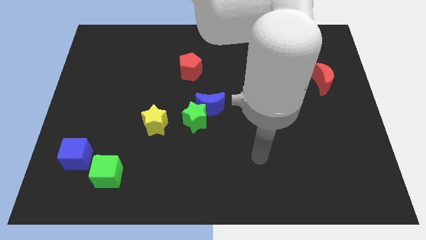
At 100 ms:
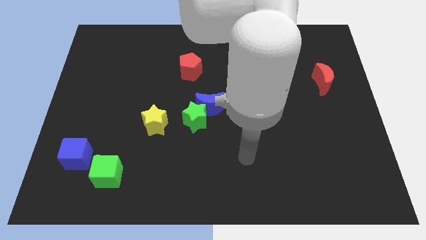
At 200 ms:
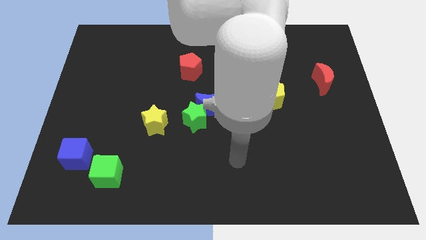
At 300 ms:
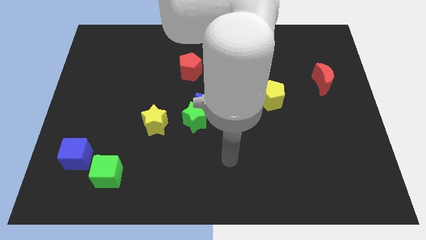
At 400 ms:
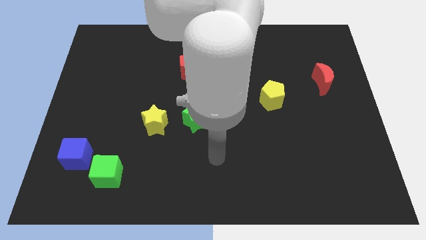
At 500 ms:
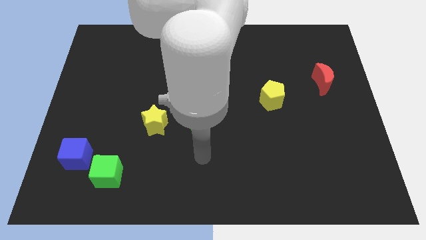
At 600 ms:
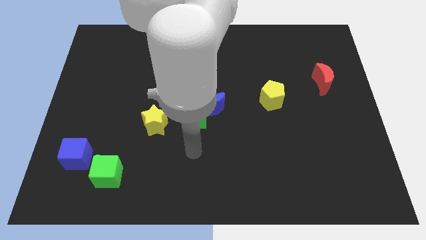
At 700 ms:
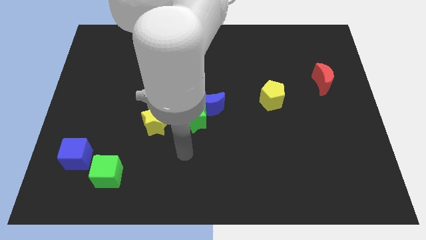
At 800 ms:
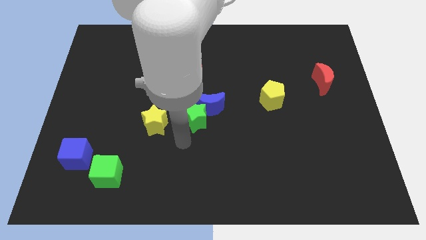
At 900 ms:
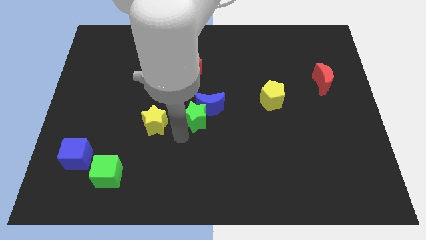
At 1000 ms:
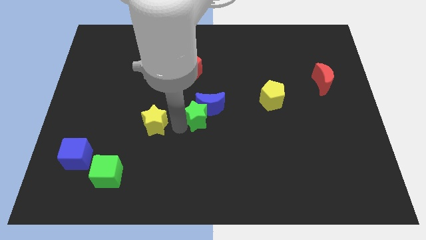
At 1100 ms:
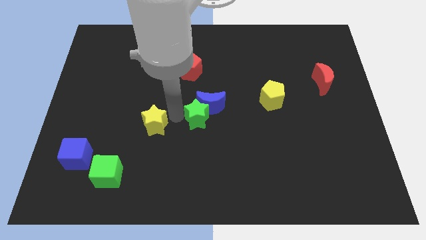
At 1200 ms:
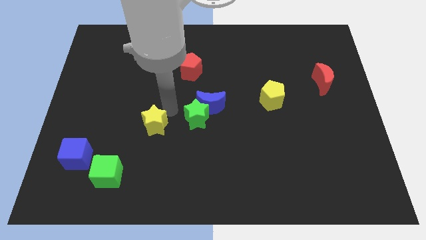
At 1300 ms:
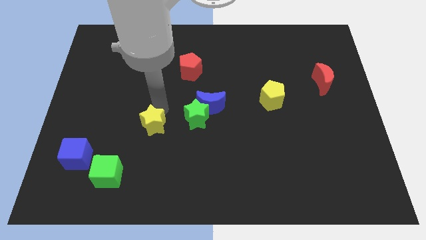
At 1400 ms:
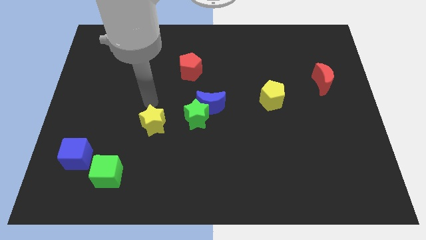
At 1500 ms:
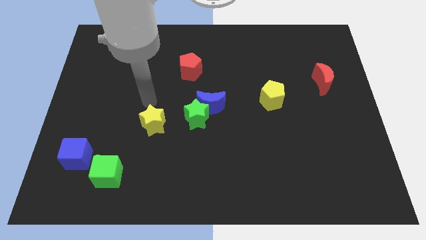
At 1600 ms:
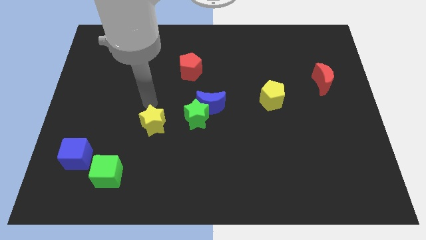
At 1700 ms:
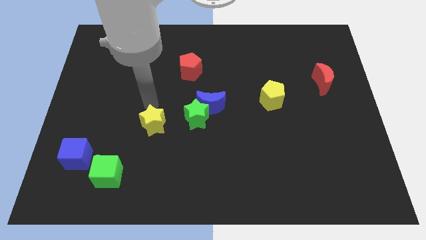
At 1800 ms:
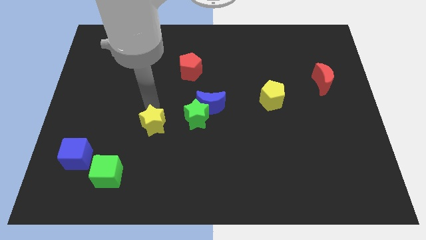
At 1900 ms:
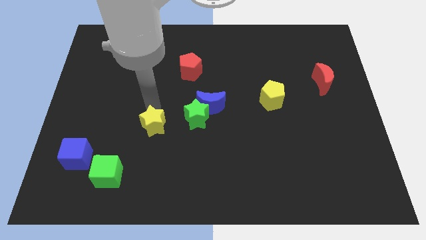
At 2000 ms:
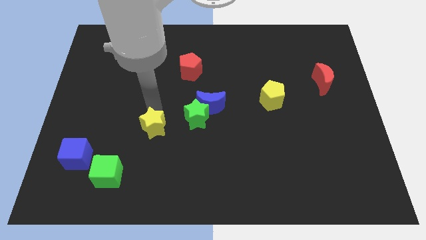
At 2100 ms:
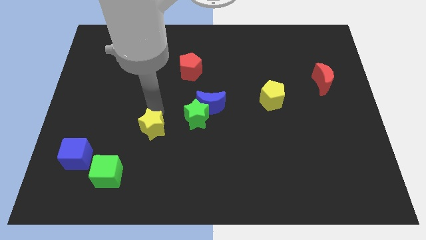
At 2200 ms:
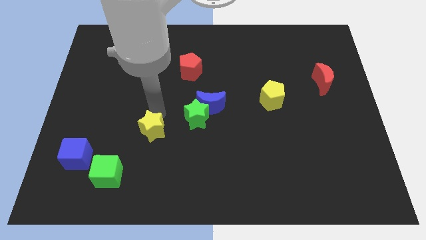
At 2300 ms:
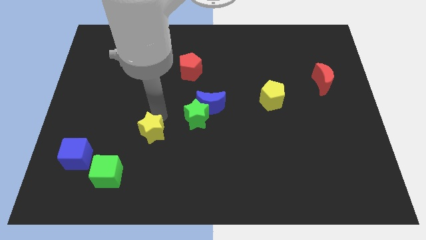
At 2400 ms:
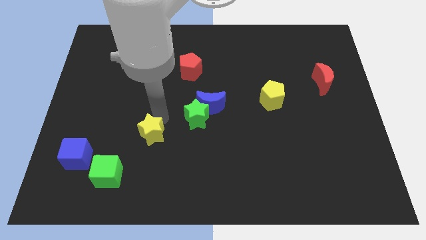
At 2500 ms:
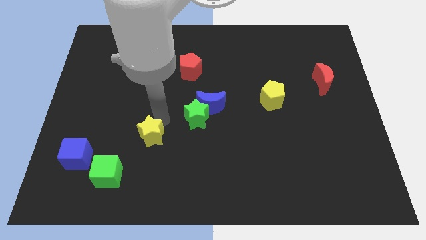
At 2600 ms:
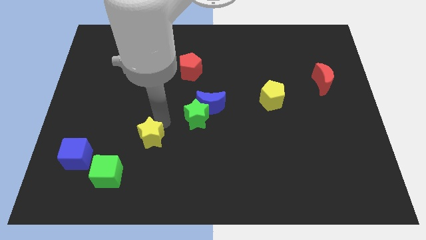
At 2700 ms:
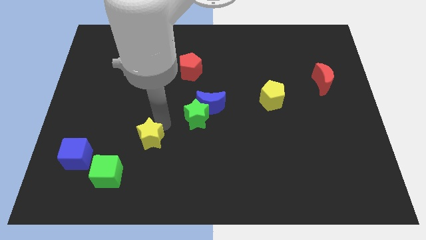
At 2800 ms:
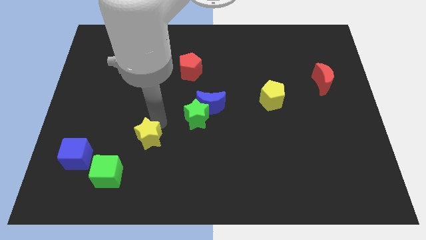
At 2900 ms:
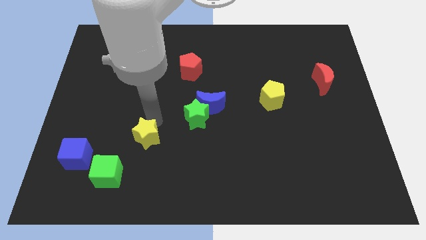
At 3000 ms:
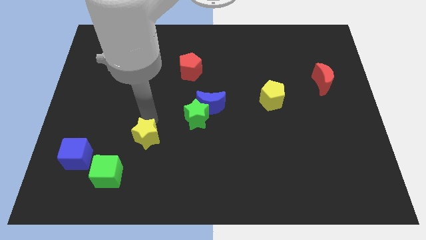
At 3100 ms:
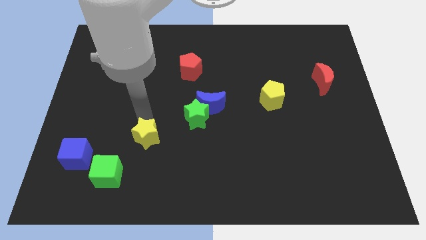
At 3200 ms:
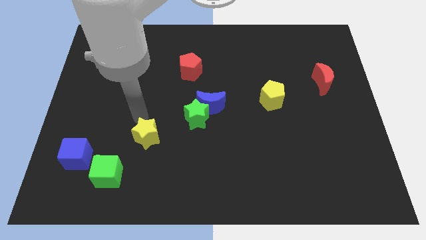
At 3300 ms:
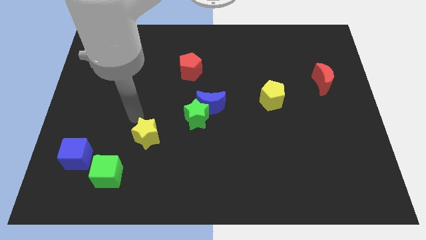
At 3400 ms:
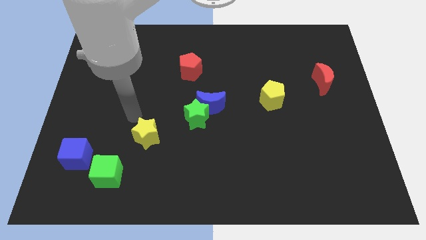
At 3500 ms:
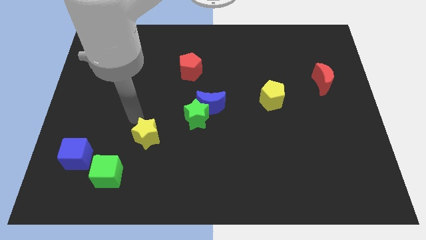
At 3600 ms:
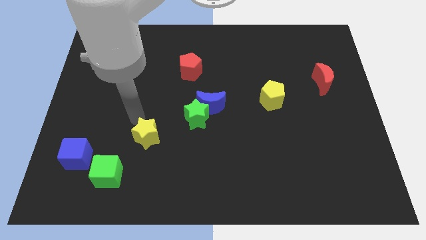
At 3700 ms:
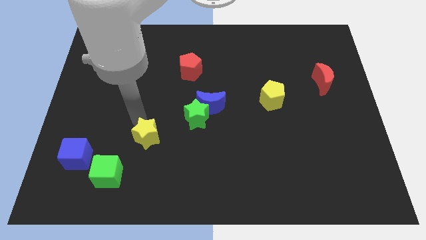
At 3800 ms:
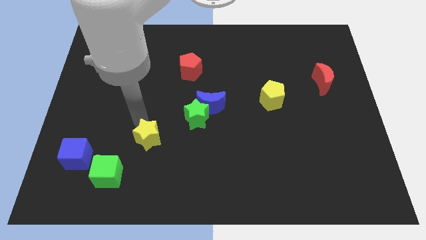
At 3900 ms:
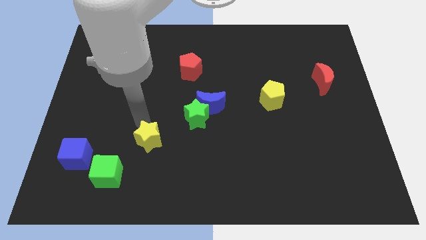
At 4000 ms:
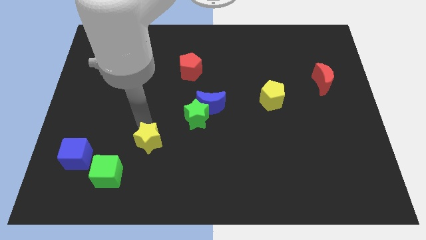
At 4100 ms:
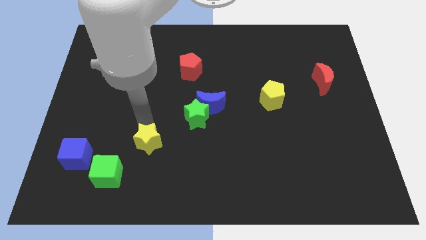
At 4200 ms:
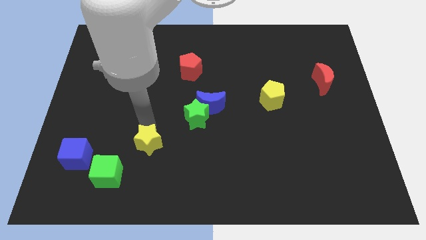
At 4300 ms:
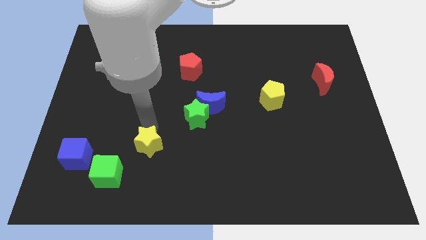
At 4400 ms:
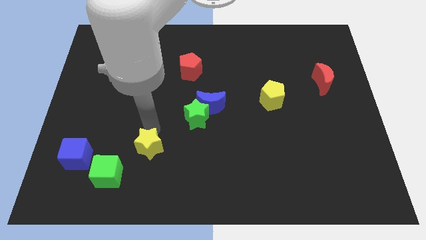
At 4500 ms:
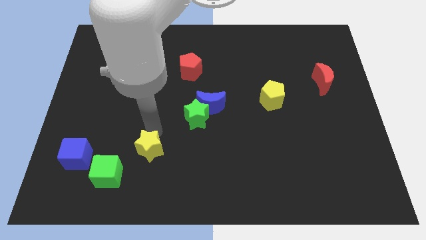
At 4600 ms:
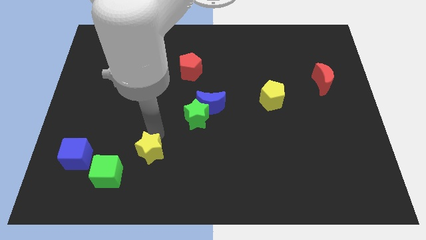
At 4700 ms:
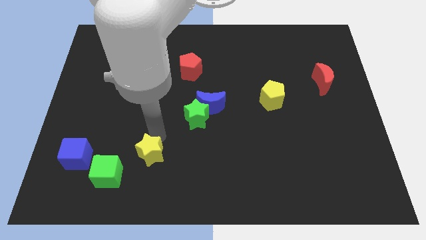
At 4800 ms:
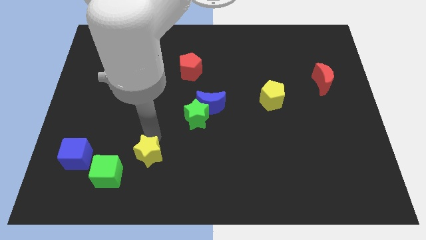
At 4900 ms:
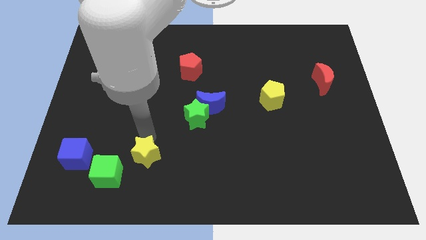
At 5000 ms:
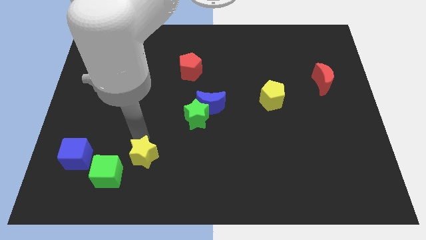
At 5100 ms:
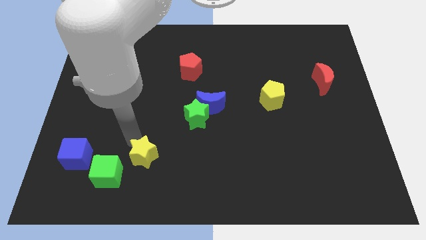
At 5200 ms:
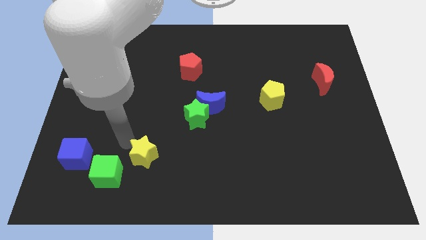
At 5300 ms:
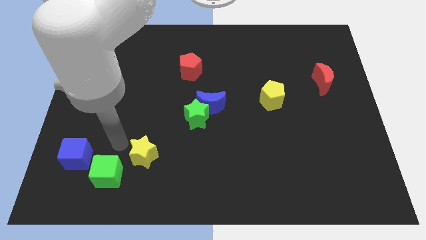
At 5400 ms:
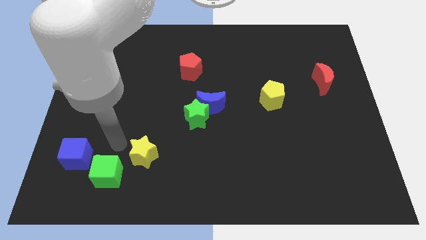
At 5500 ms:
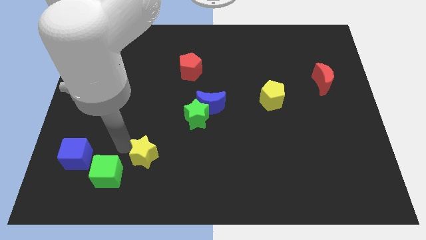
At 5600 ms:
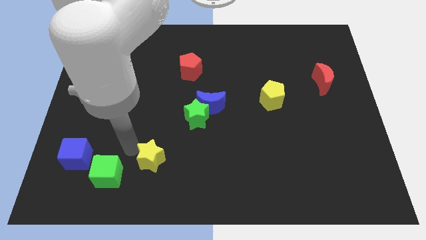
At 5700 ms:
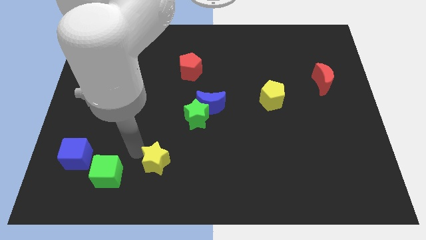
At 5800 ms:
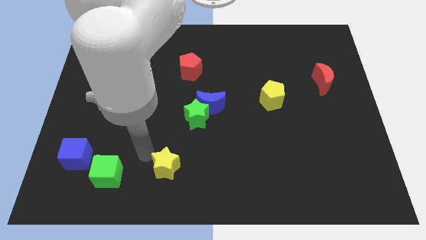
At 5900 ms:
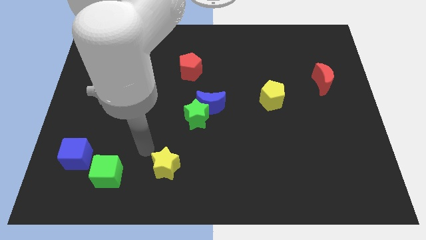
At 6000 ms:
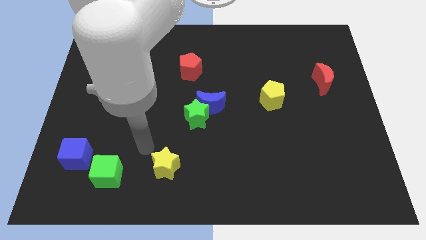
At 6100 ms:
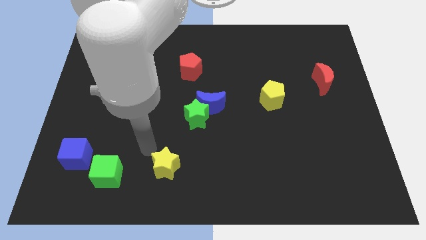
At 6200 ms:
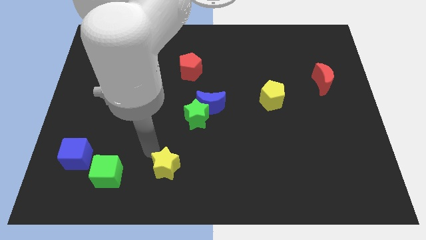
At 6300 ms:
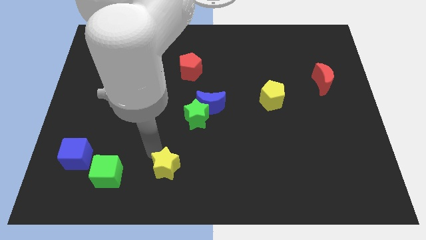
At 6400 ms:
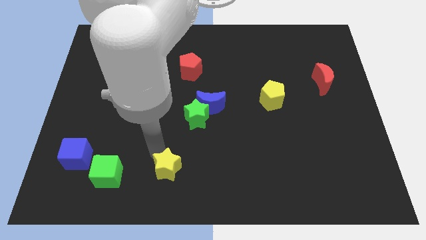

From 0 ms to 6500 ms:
move the yellow star to the bottom
